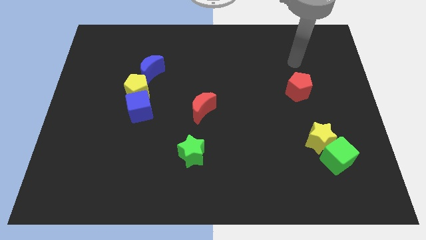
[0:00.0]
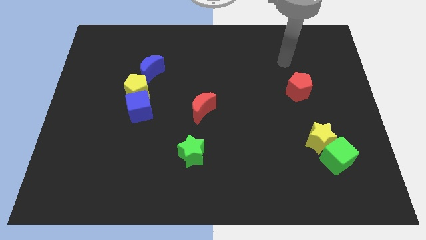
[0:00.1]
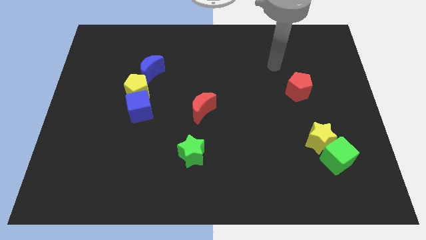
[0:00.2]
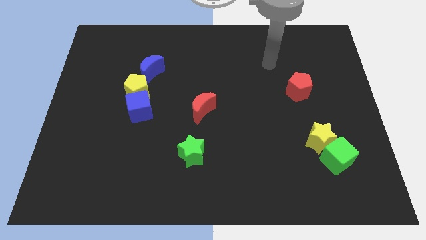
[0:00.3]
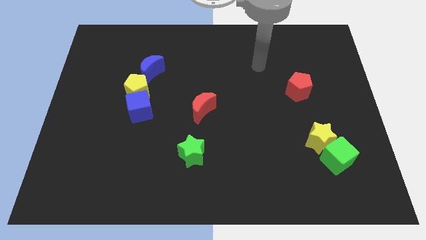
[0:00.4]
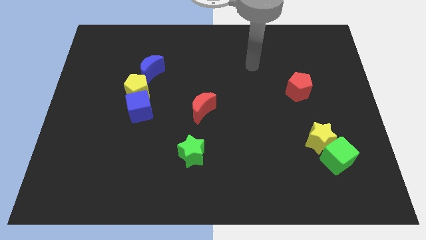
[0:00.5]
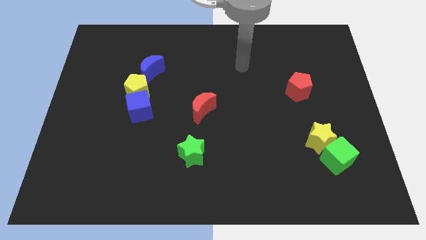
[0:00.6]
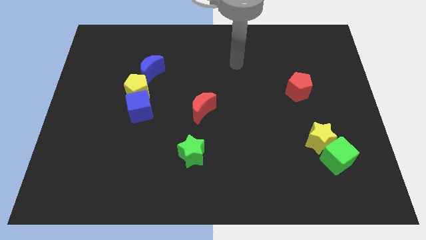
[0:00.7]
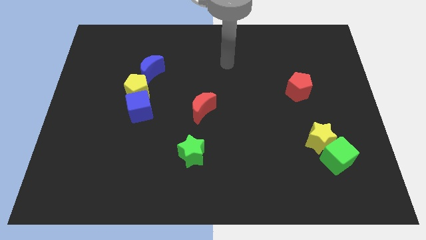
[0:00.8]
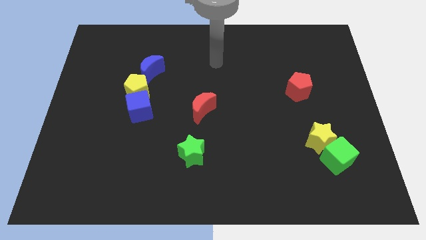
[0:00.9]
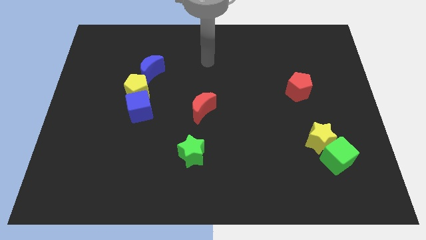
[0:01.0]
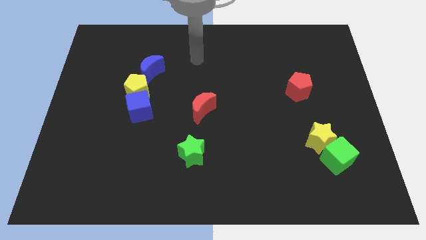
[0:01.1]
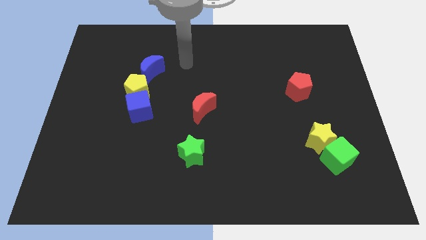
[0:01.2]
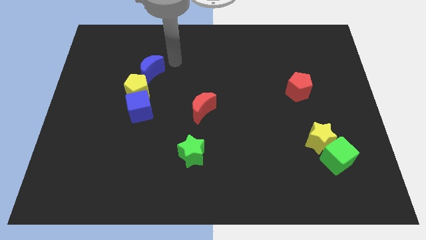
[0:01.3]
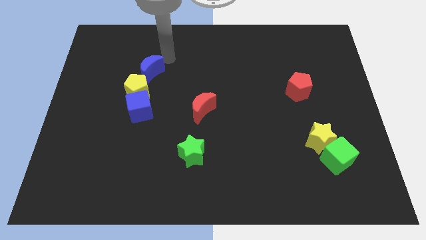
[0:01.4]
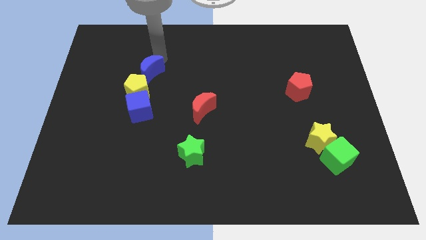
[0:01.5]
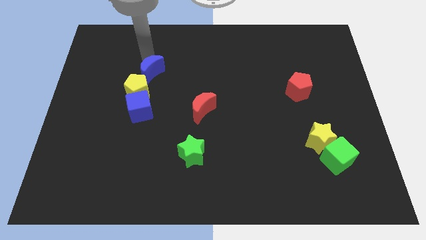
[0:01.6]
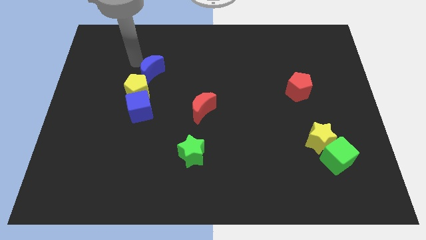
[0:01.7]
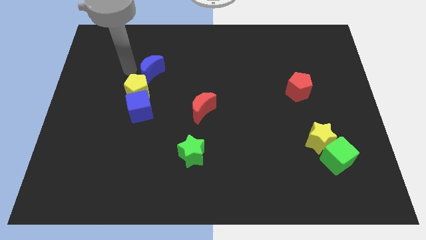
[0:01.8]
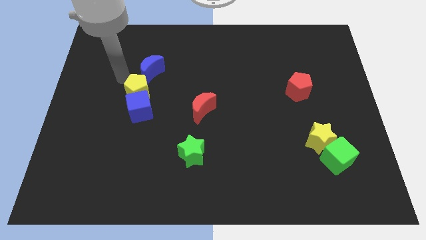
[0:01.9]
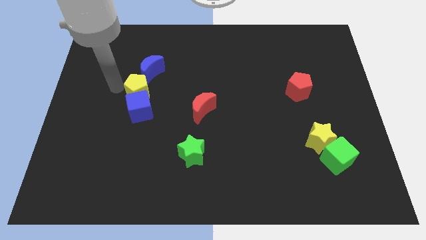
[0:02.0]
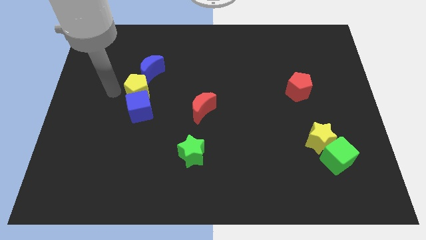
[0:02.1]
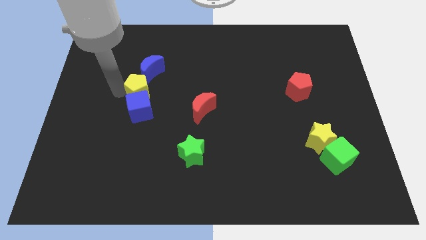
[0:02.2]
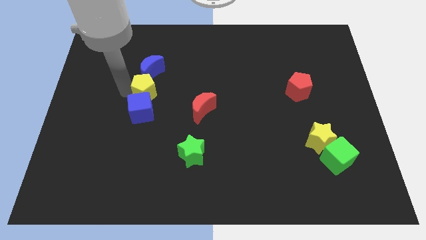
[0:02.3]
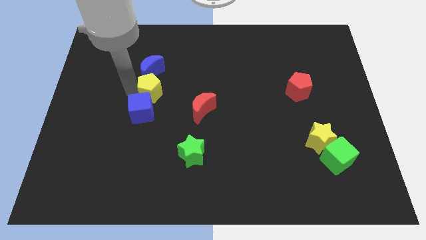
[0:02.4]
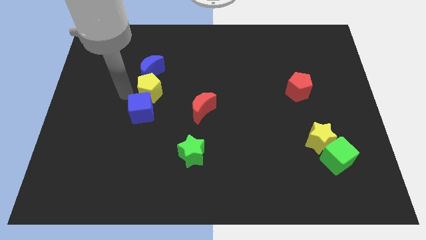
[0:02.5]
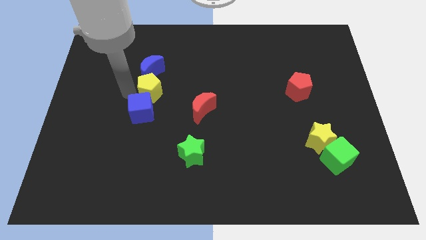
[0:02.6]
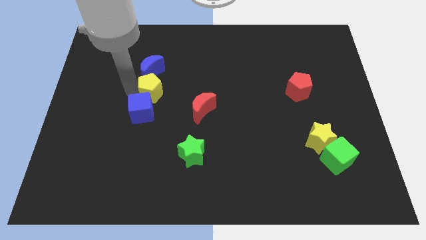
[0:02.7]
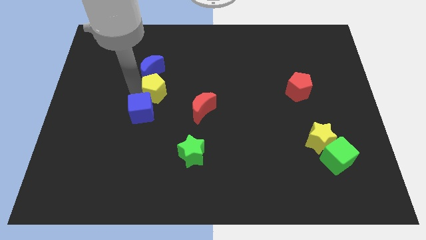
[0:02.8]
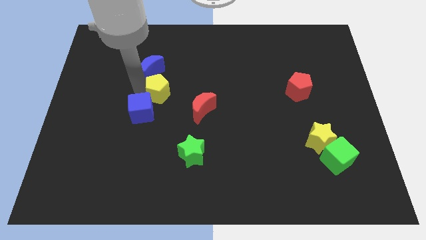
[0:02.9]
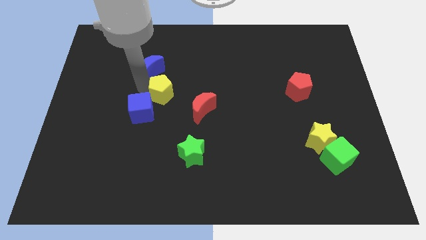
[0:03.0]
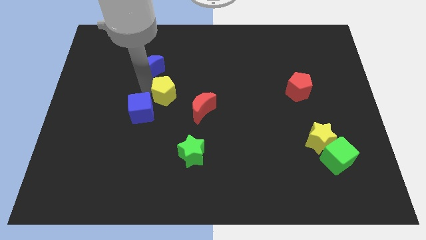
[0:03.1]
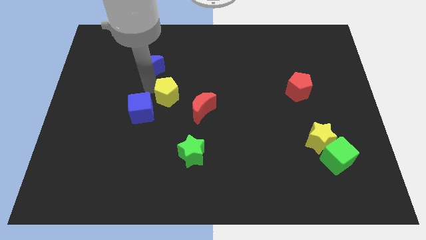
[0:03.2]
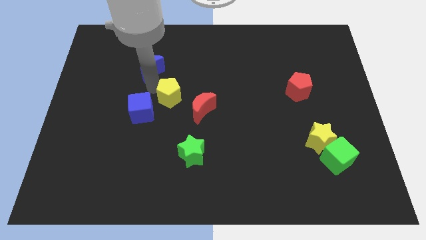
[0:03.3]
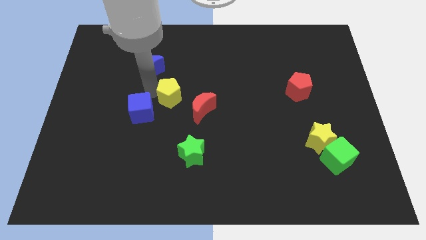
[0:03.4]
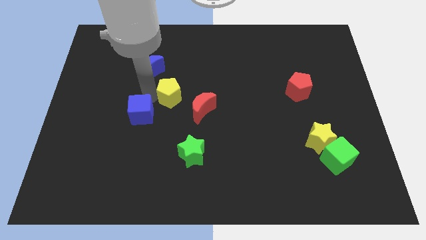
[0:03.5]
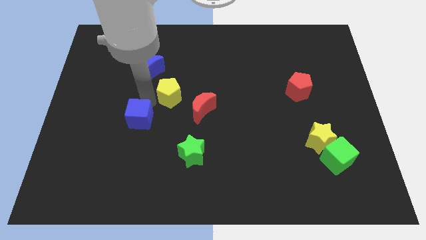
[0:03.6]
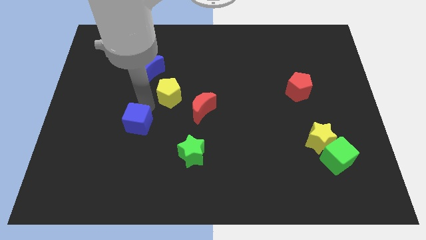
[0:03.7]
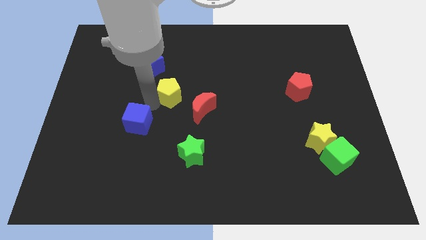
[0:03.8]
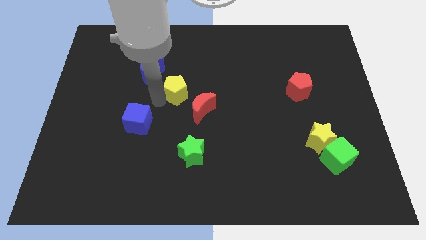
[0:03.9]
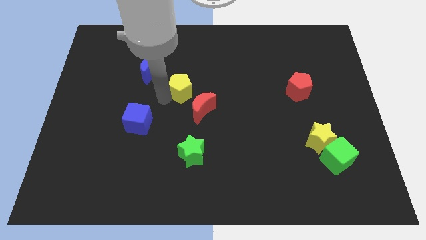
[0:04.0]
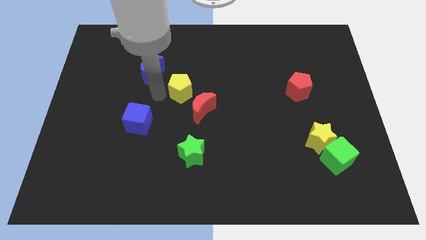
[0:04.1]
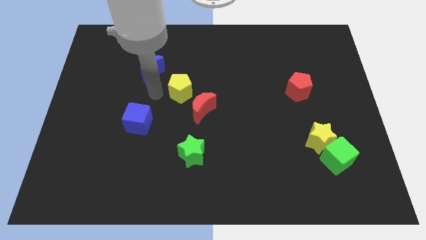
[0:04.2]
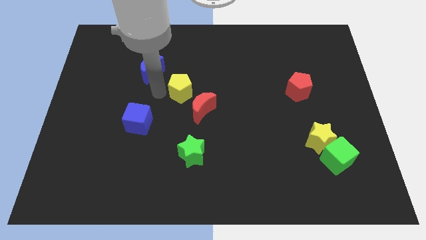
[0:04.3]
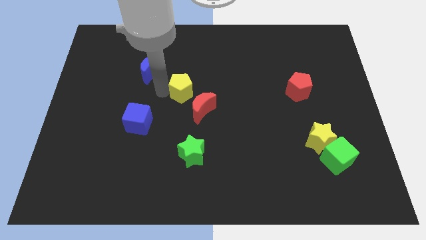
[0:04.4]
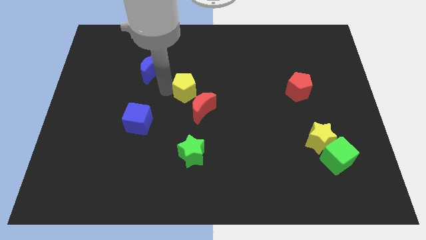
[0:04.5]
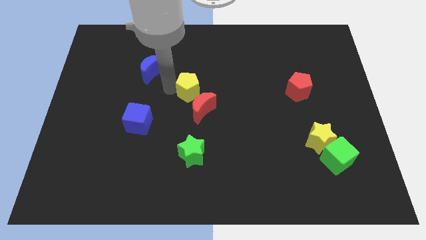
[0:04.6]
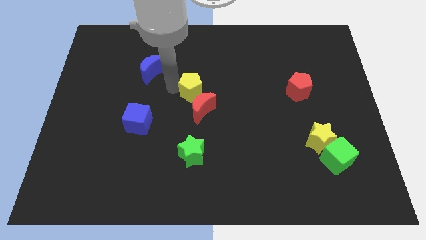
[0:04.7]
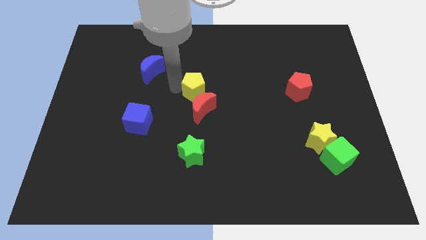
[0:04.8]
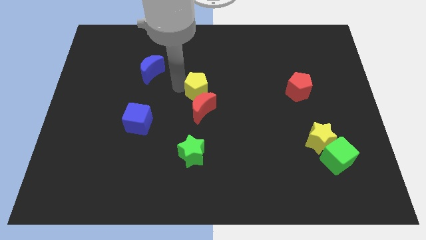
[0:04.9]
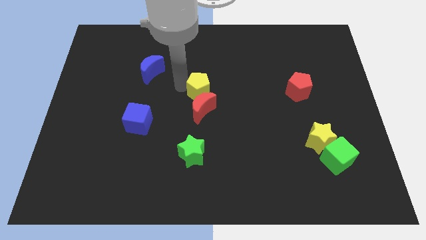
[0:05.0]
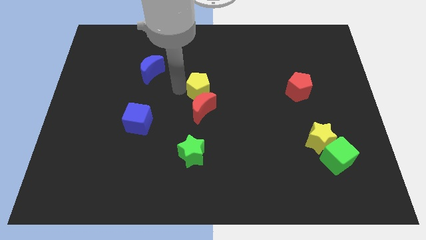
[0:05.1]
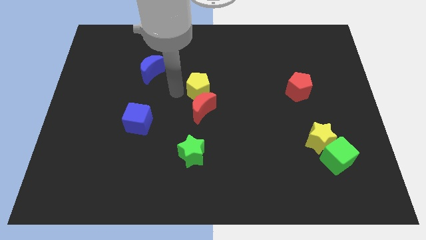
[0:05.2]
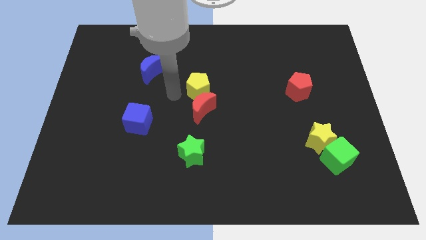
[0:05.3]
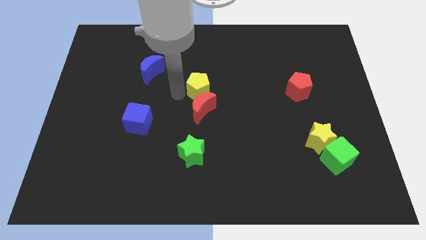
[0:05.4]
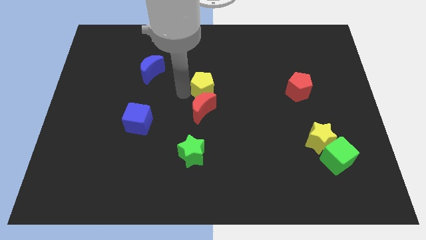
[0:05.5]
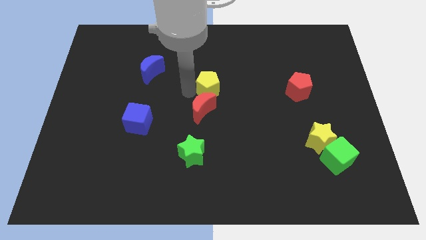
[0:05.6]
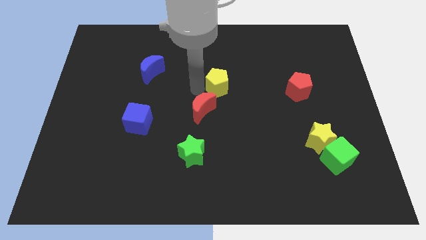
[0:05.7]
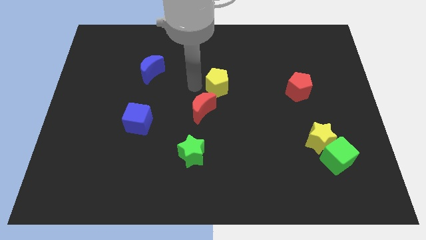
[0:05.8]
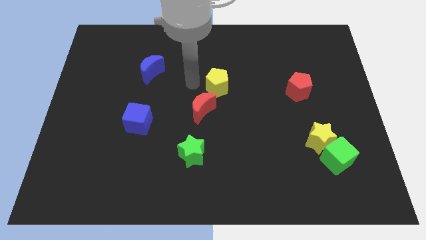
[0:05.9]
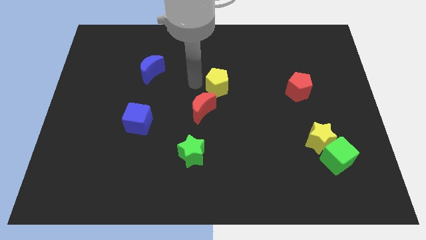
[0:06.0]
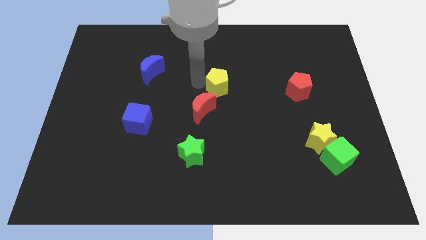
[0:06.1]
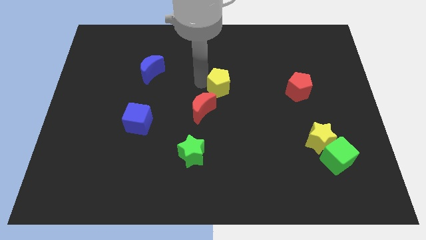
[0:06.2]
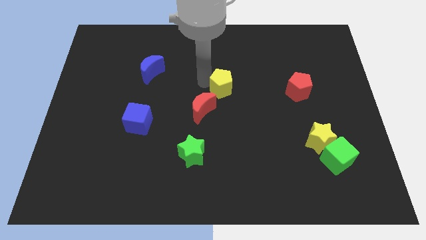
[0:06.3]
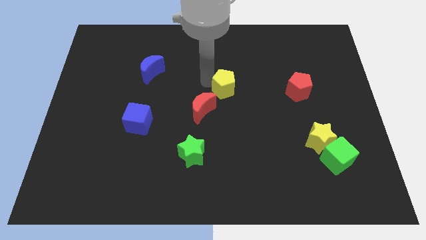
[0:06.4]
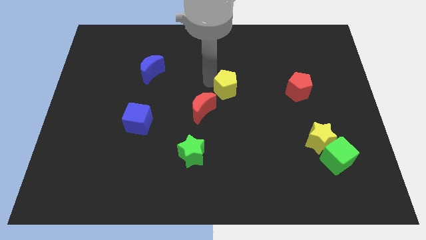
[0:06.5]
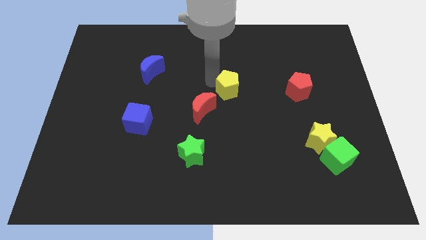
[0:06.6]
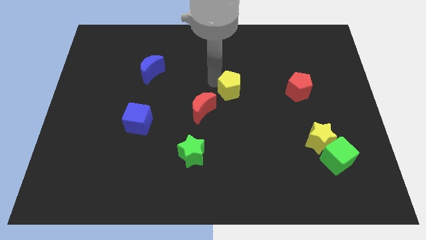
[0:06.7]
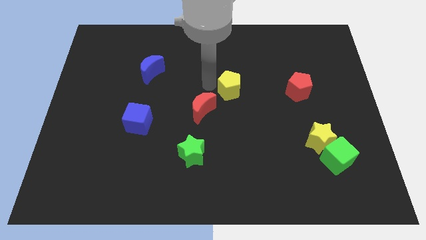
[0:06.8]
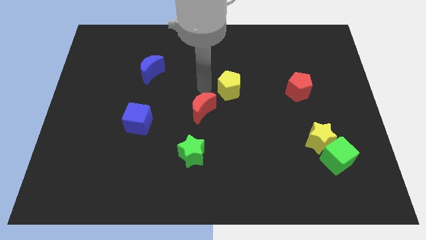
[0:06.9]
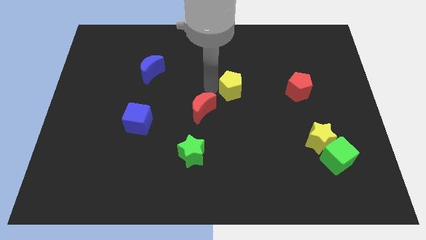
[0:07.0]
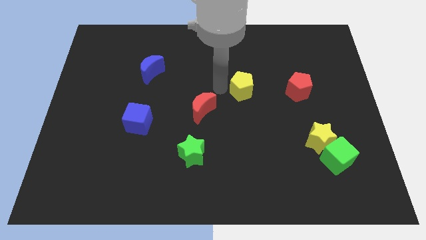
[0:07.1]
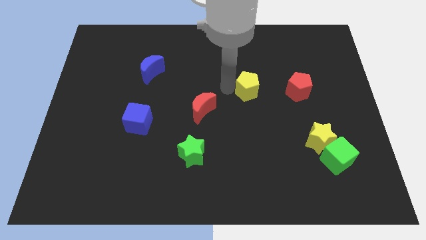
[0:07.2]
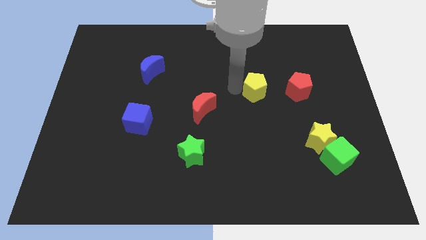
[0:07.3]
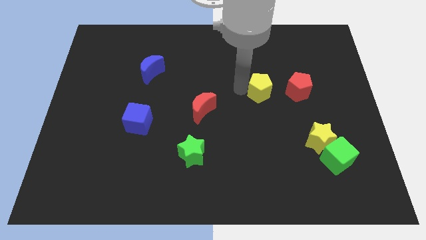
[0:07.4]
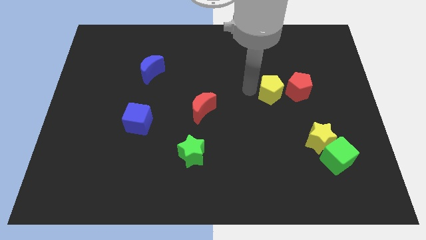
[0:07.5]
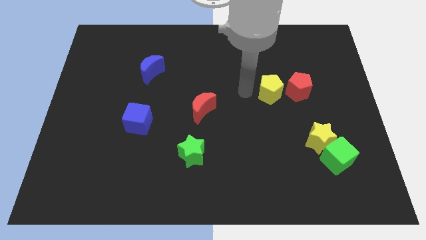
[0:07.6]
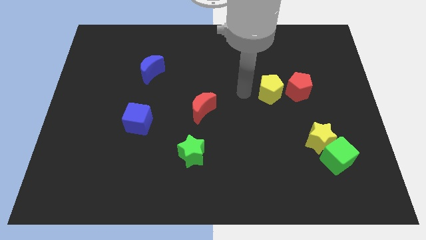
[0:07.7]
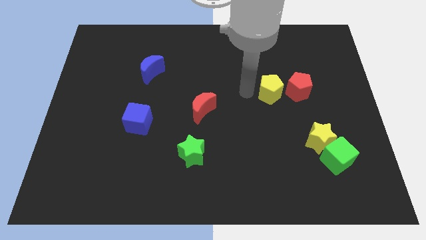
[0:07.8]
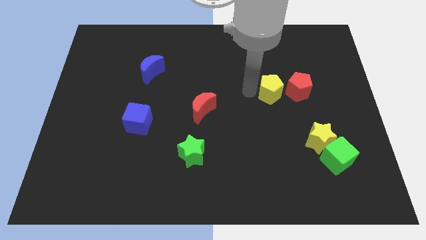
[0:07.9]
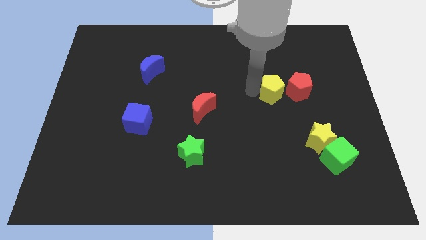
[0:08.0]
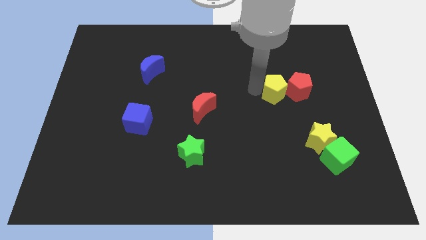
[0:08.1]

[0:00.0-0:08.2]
move the yellow pentagon next to the red pentagon
